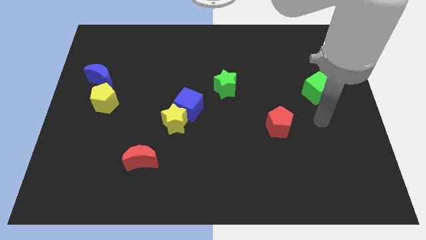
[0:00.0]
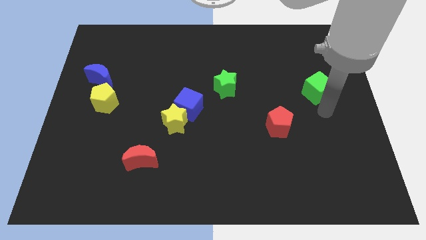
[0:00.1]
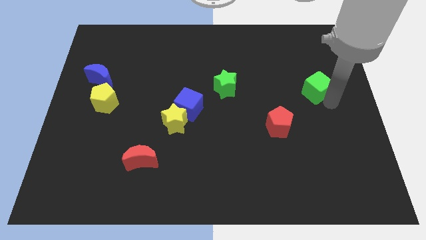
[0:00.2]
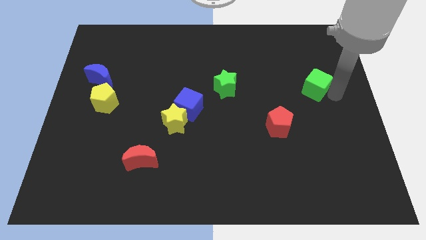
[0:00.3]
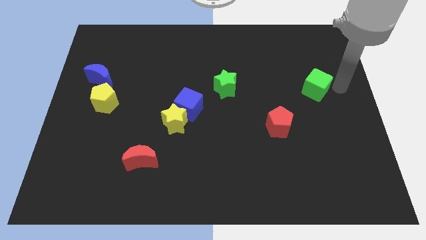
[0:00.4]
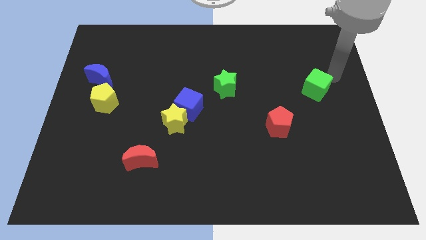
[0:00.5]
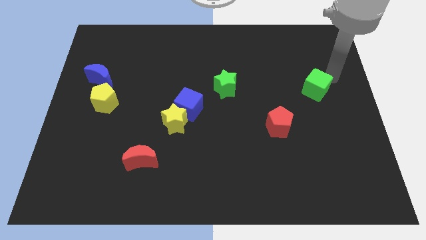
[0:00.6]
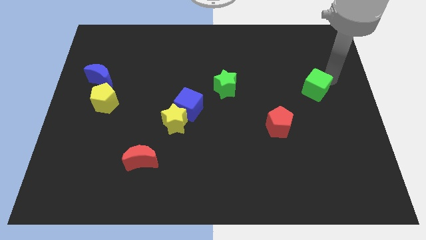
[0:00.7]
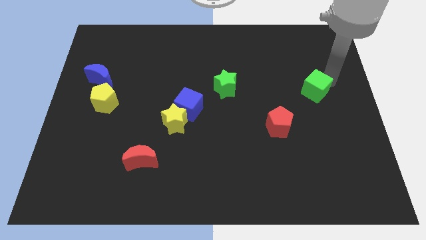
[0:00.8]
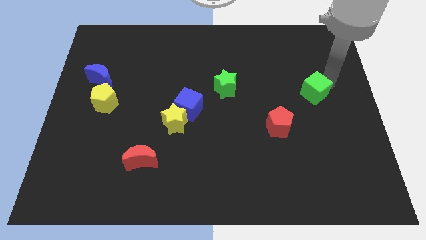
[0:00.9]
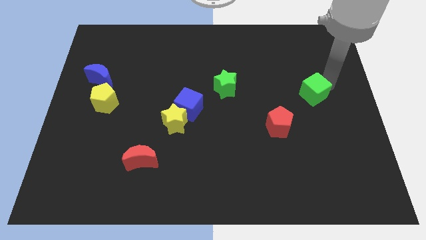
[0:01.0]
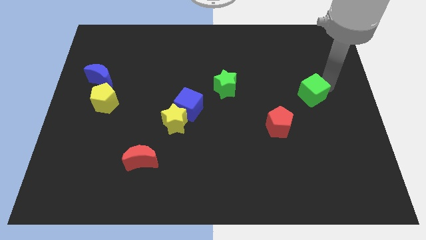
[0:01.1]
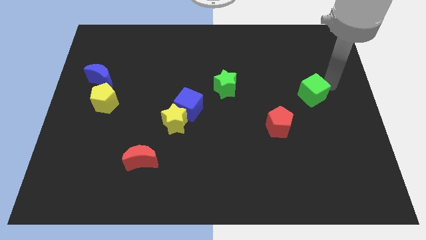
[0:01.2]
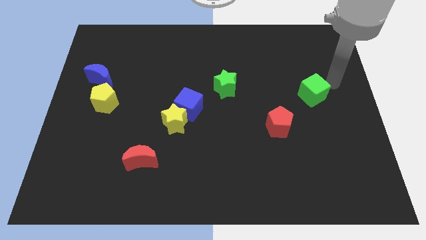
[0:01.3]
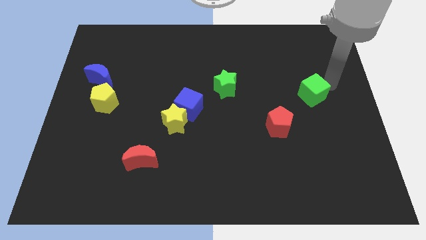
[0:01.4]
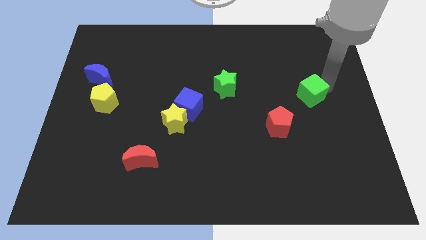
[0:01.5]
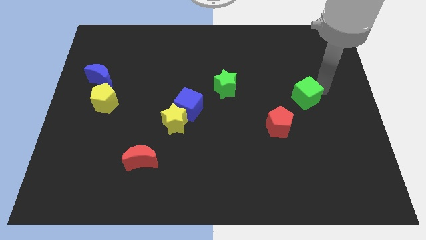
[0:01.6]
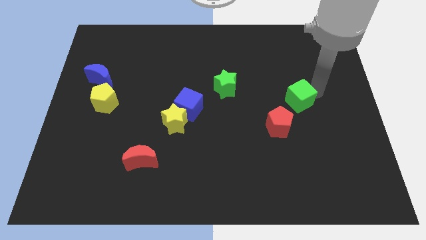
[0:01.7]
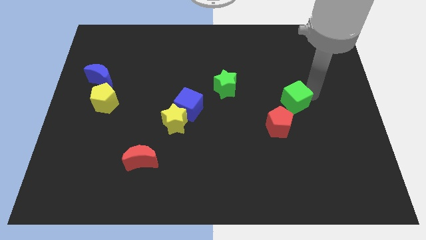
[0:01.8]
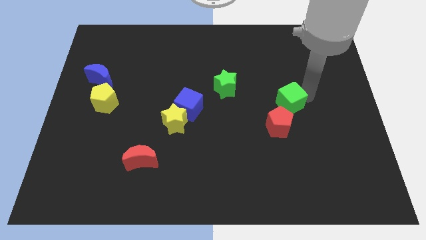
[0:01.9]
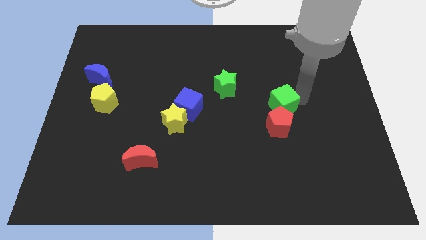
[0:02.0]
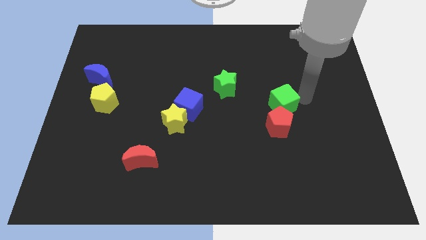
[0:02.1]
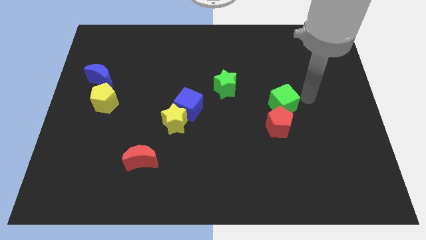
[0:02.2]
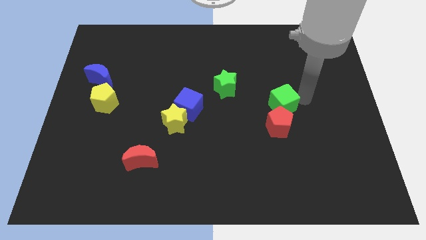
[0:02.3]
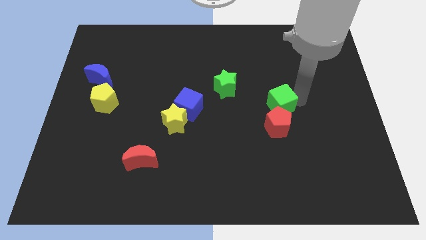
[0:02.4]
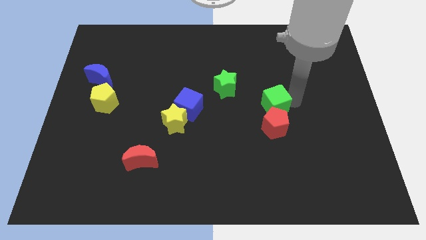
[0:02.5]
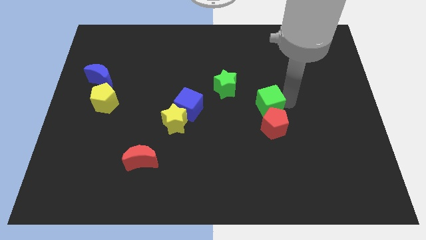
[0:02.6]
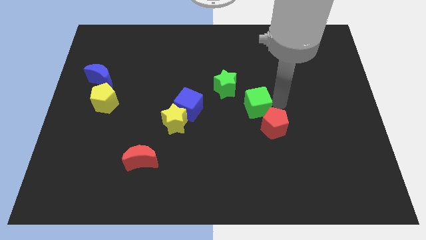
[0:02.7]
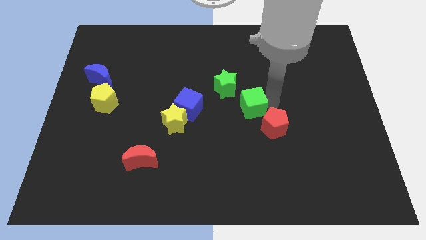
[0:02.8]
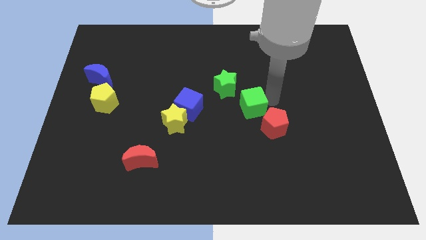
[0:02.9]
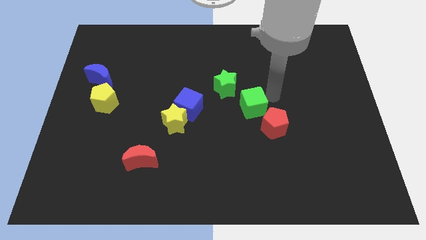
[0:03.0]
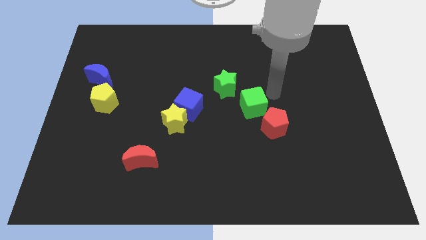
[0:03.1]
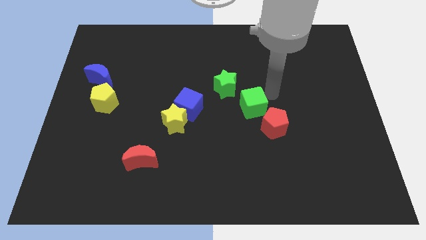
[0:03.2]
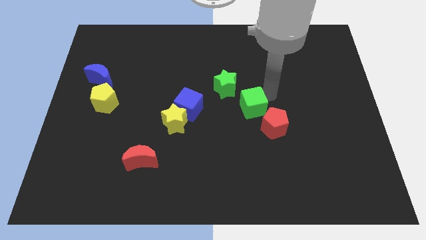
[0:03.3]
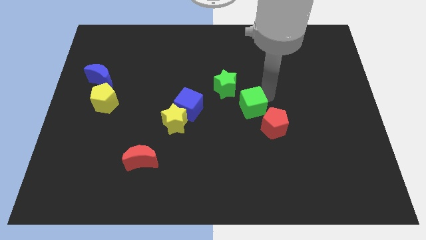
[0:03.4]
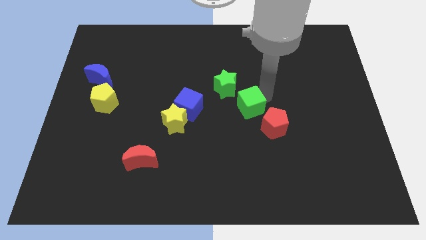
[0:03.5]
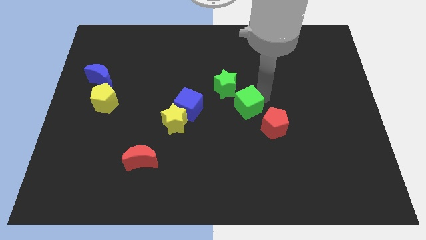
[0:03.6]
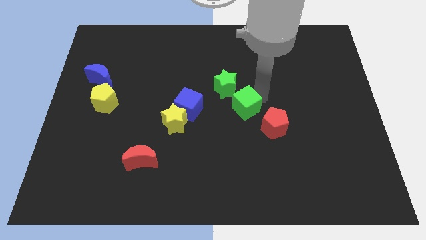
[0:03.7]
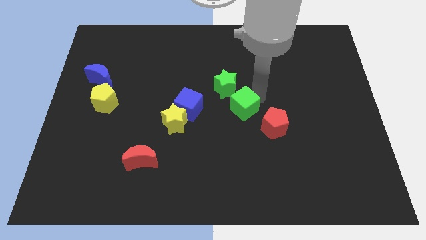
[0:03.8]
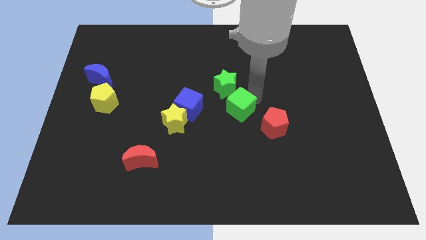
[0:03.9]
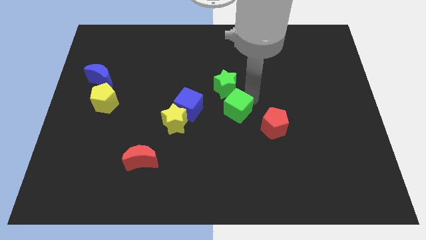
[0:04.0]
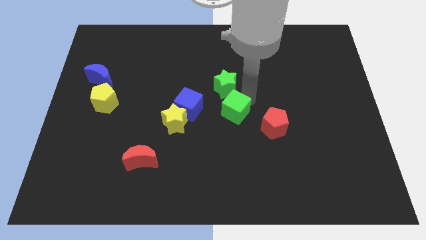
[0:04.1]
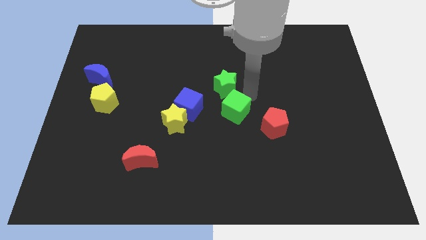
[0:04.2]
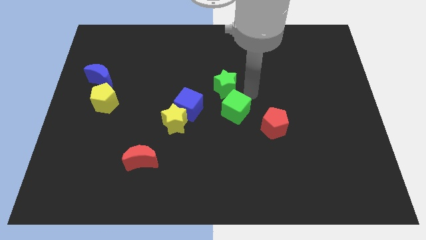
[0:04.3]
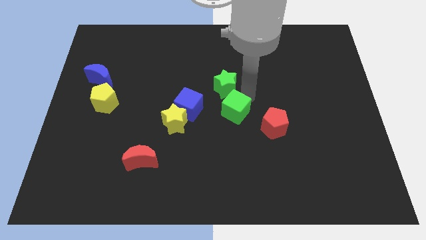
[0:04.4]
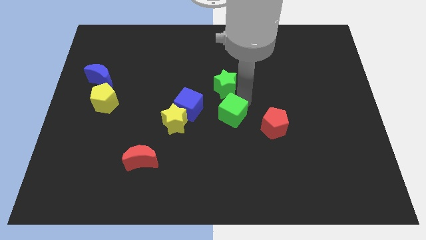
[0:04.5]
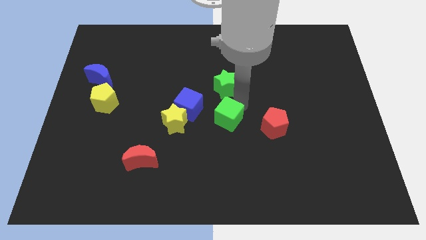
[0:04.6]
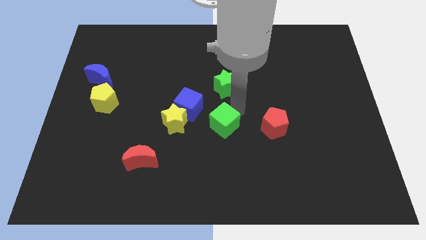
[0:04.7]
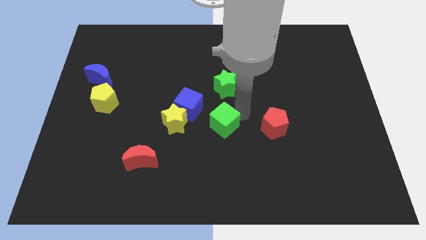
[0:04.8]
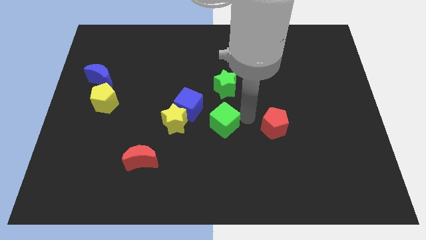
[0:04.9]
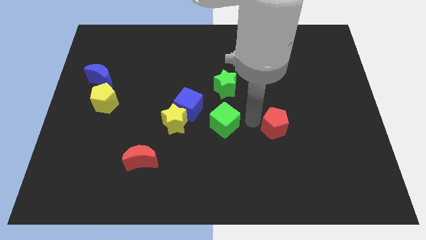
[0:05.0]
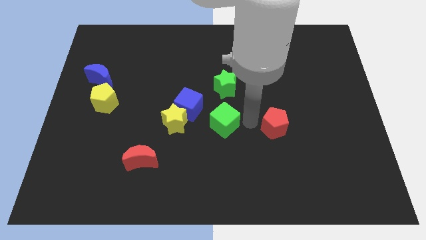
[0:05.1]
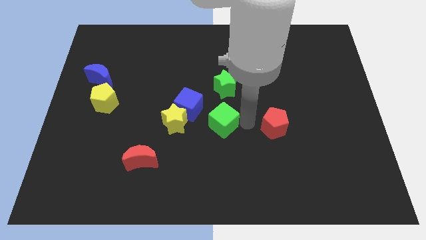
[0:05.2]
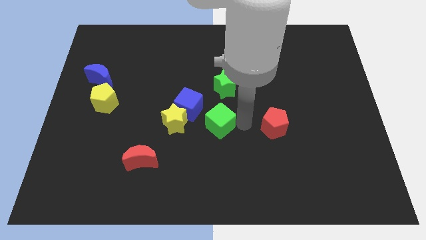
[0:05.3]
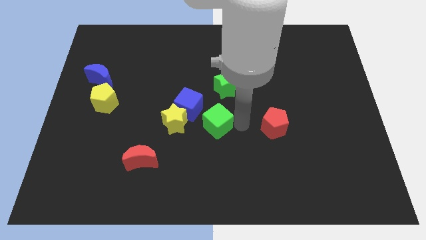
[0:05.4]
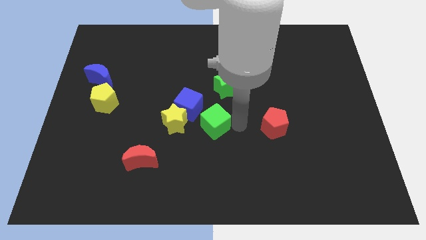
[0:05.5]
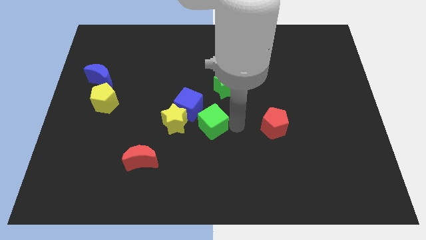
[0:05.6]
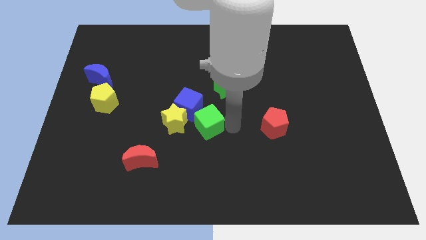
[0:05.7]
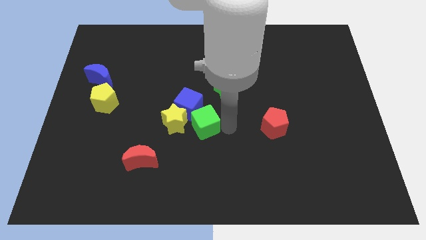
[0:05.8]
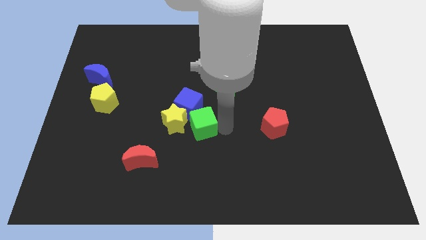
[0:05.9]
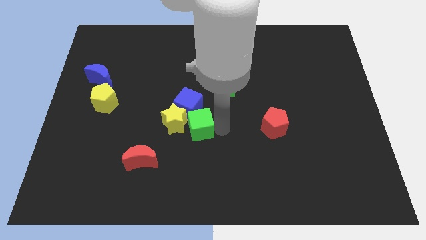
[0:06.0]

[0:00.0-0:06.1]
put the green cube close to the yellow star

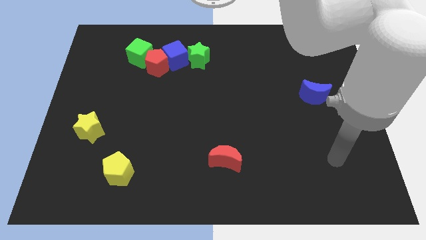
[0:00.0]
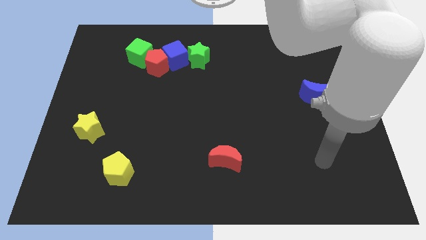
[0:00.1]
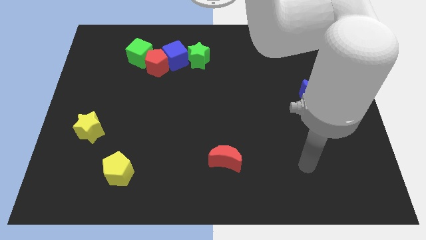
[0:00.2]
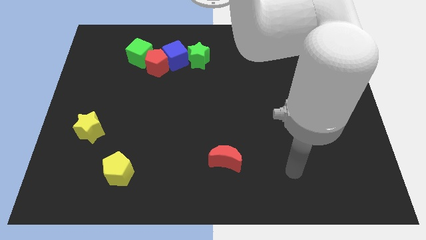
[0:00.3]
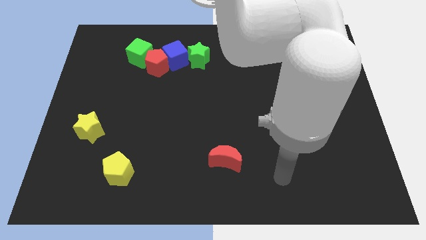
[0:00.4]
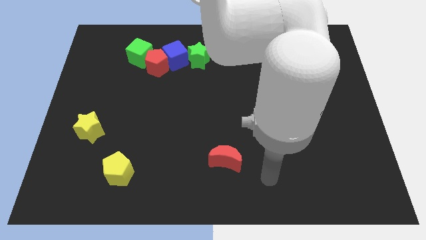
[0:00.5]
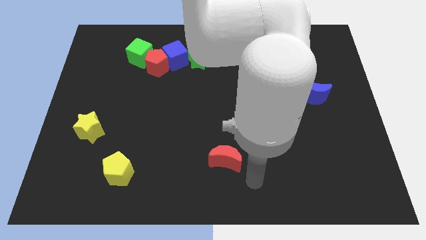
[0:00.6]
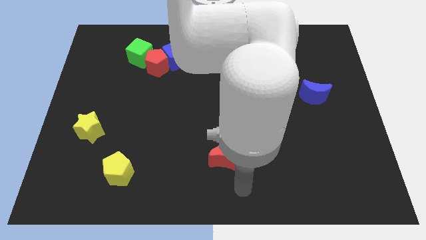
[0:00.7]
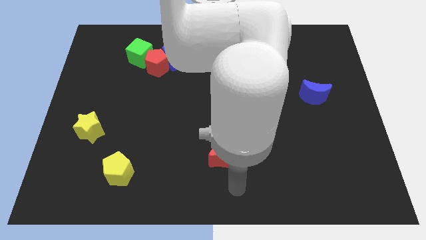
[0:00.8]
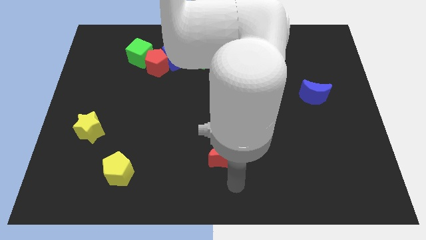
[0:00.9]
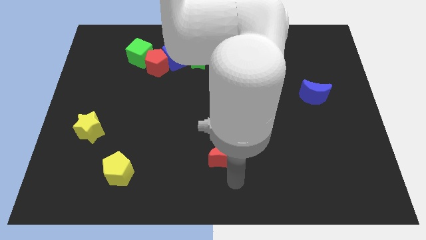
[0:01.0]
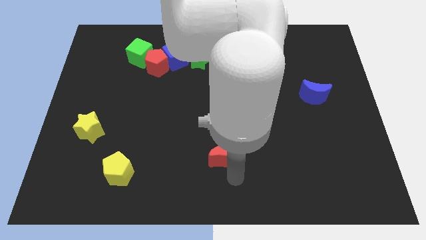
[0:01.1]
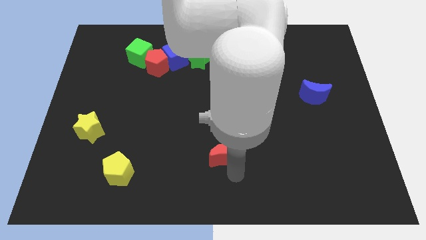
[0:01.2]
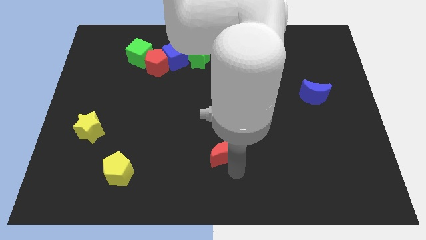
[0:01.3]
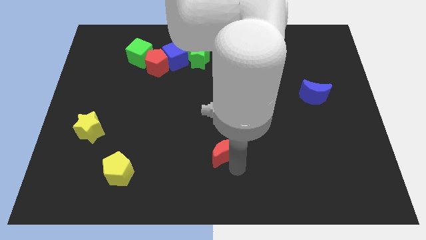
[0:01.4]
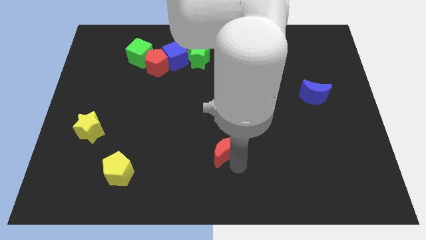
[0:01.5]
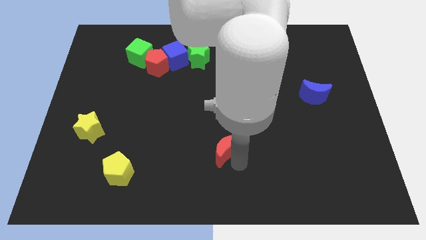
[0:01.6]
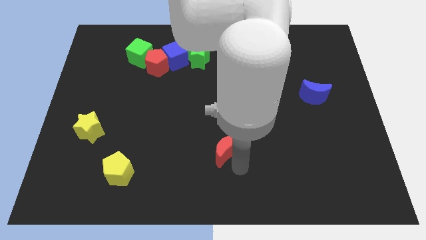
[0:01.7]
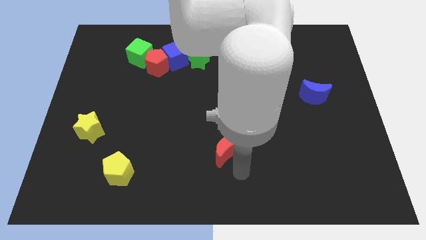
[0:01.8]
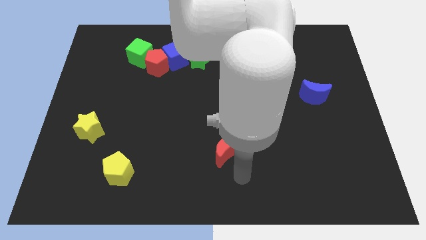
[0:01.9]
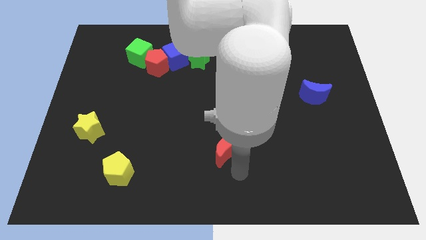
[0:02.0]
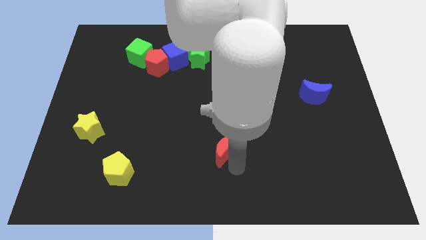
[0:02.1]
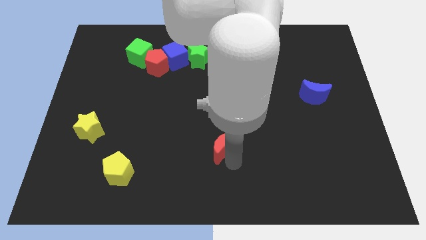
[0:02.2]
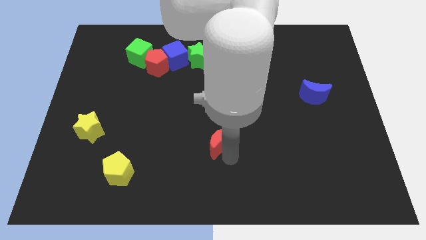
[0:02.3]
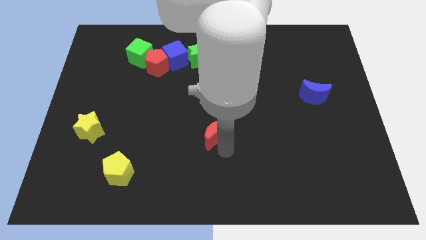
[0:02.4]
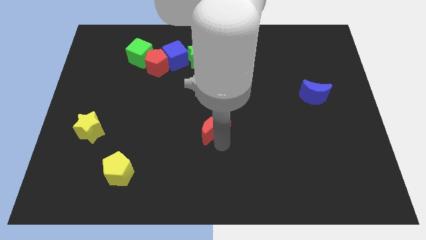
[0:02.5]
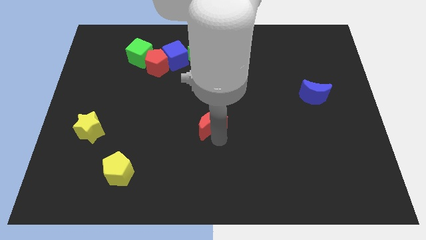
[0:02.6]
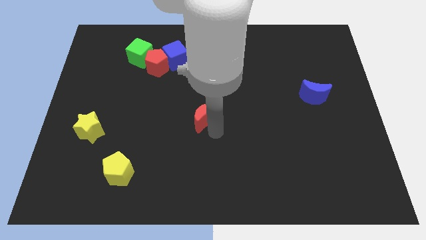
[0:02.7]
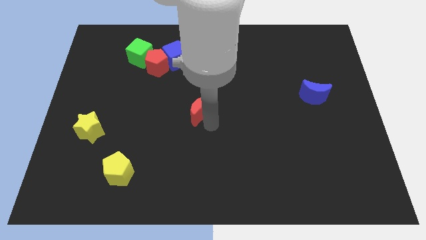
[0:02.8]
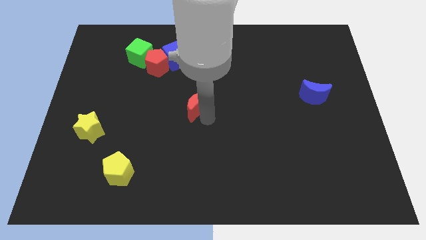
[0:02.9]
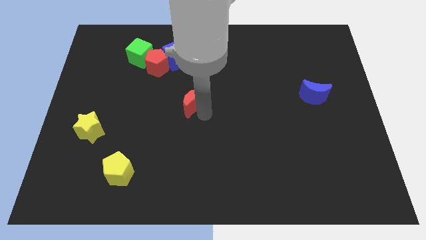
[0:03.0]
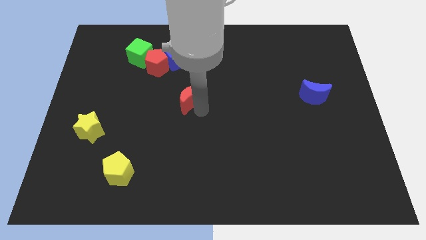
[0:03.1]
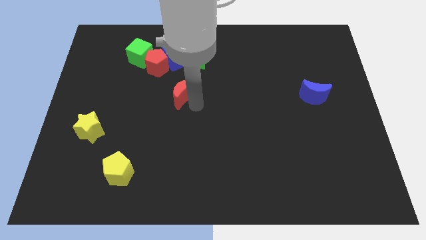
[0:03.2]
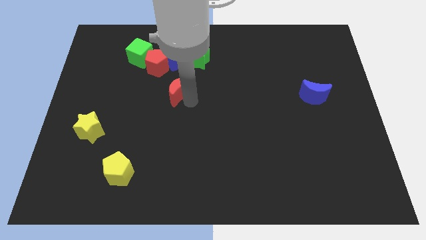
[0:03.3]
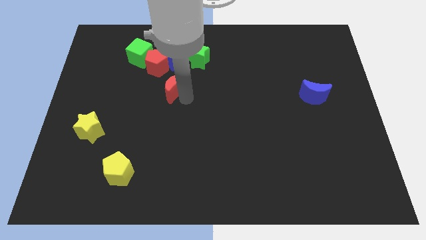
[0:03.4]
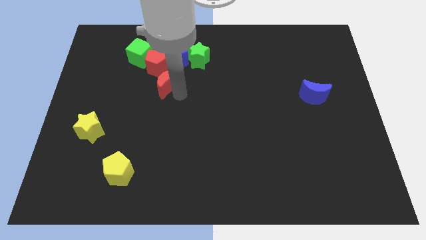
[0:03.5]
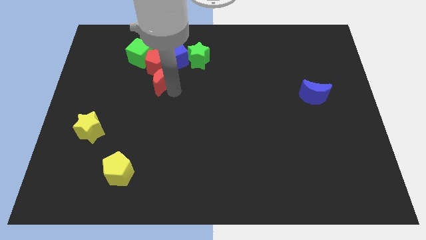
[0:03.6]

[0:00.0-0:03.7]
push the red moon close to the red pentagon
